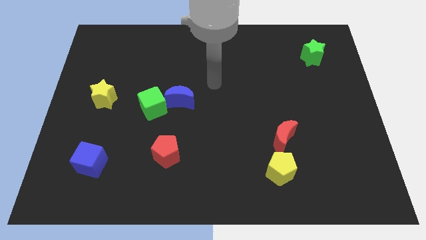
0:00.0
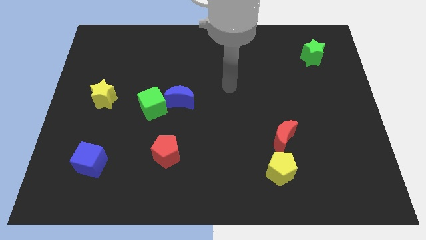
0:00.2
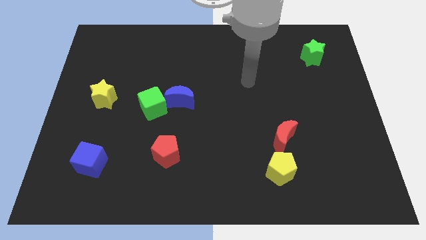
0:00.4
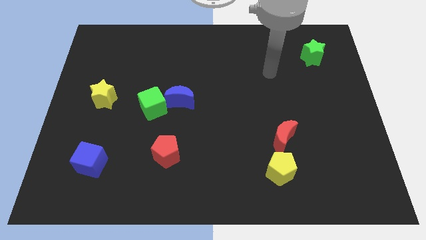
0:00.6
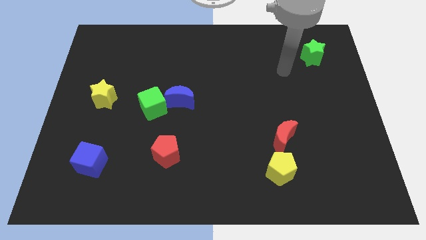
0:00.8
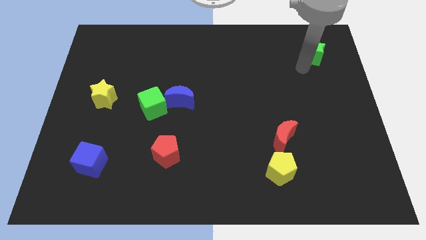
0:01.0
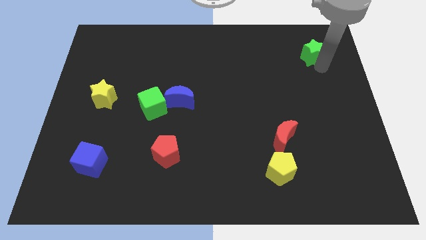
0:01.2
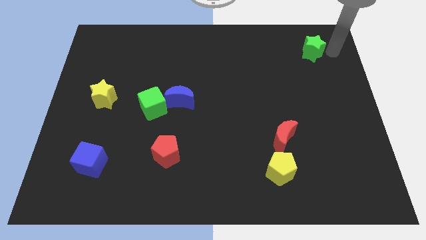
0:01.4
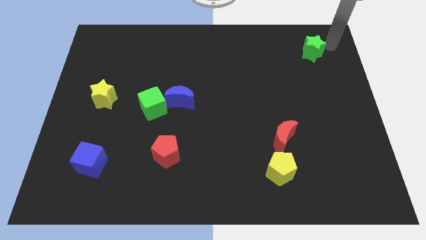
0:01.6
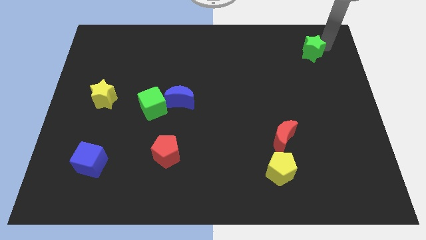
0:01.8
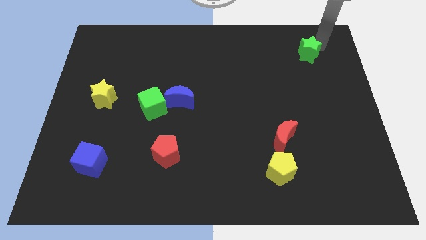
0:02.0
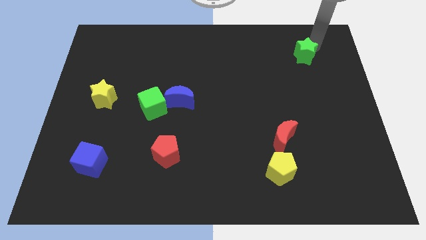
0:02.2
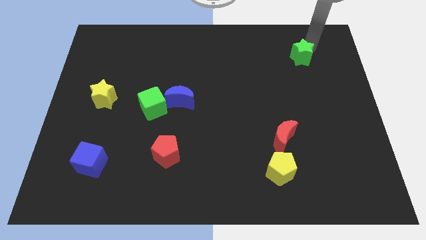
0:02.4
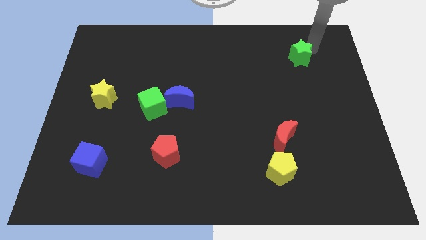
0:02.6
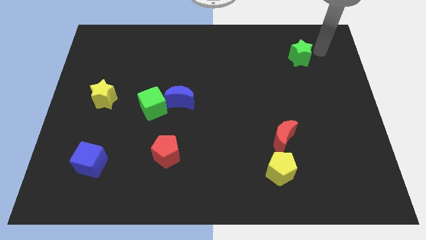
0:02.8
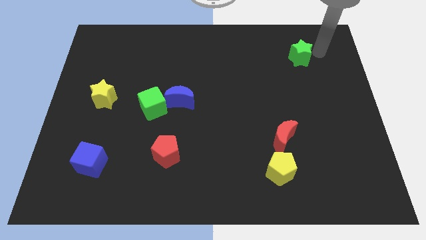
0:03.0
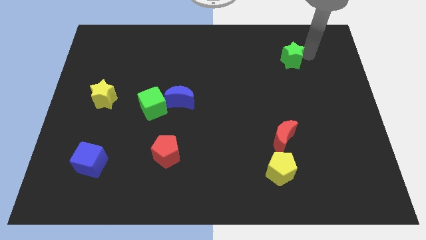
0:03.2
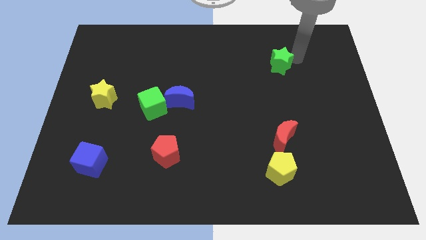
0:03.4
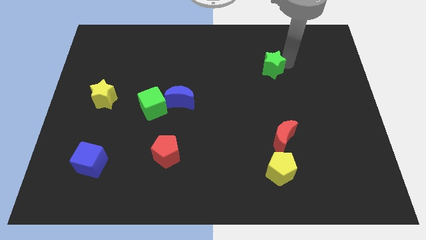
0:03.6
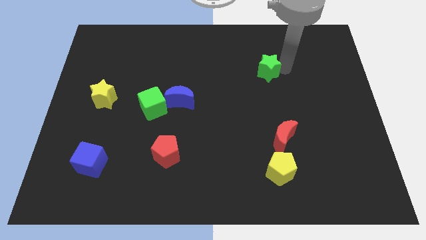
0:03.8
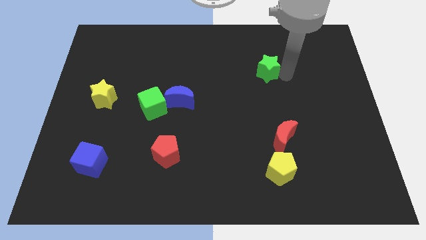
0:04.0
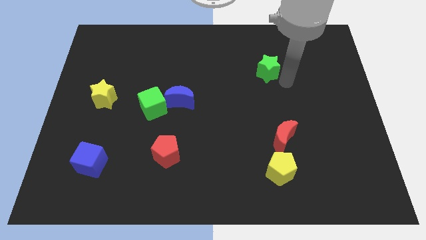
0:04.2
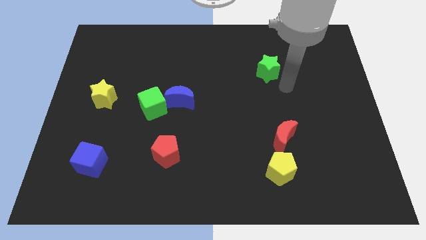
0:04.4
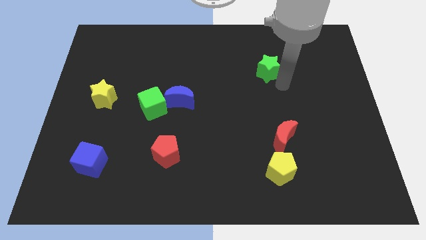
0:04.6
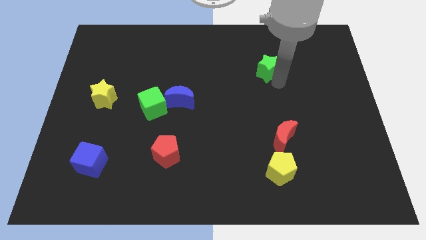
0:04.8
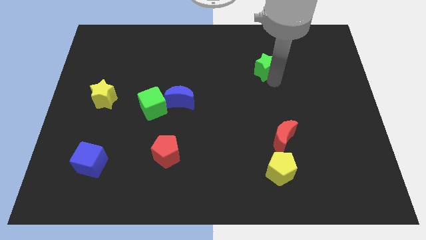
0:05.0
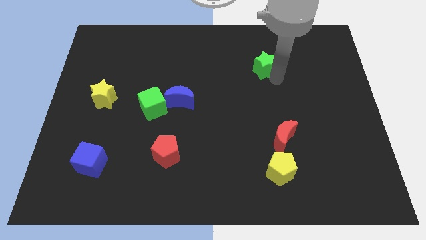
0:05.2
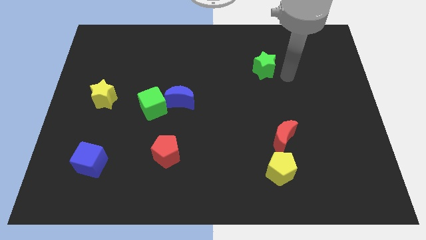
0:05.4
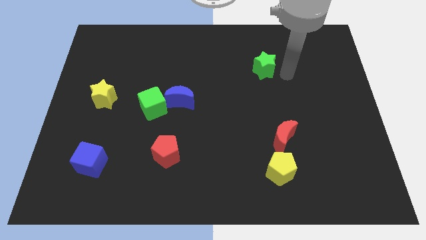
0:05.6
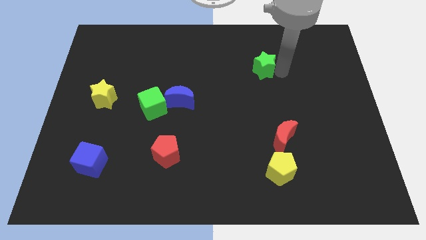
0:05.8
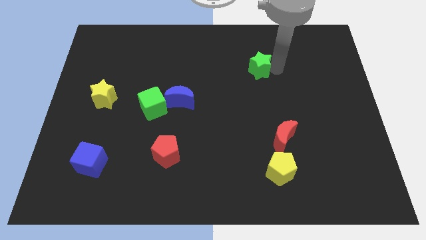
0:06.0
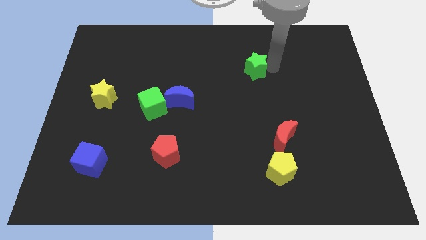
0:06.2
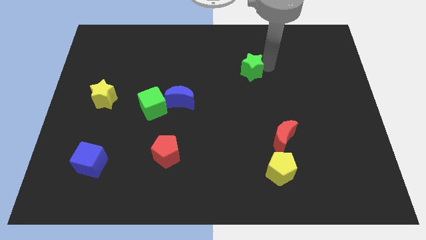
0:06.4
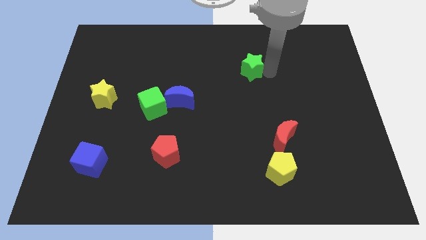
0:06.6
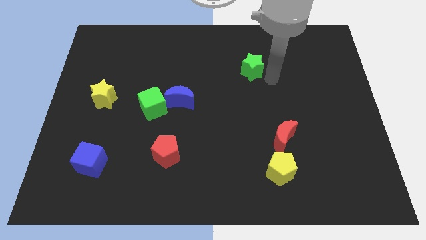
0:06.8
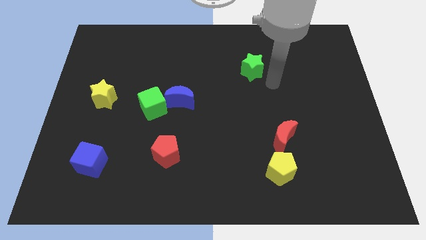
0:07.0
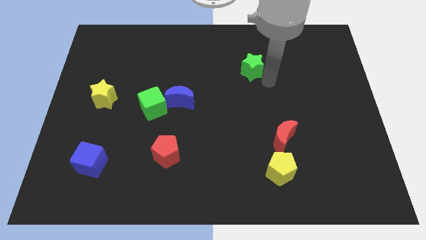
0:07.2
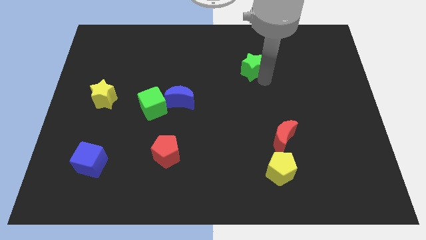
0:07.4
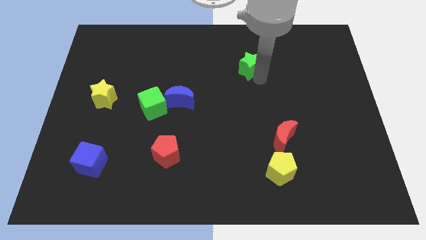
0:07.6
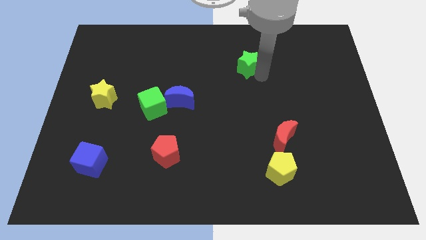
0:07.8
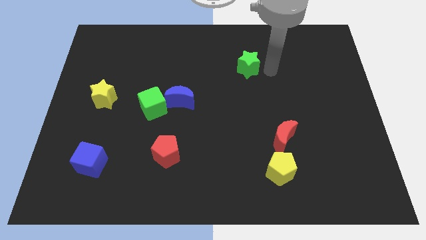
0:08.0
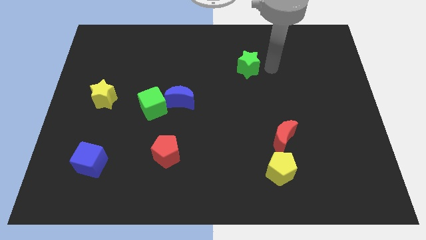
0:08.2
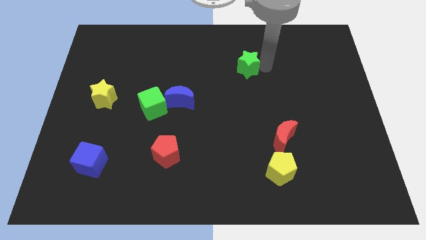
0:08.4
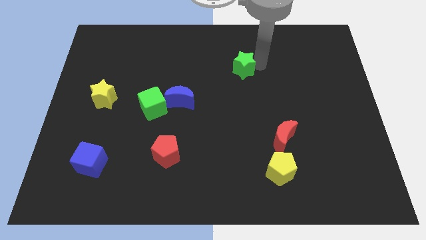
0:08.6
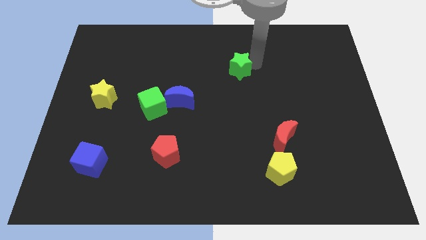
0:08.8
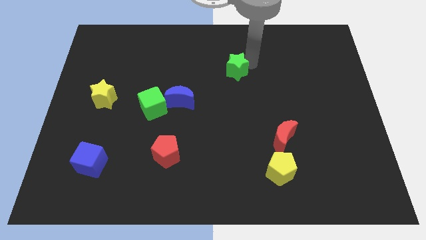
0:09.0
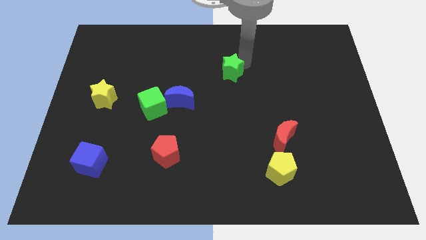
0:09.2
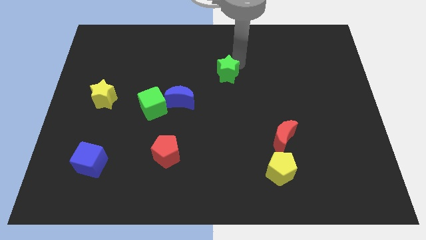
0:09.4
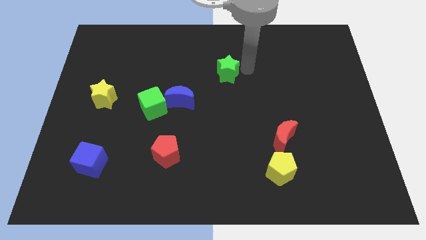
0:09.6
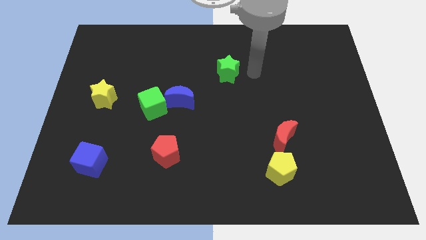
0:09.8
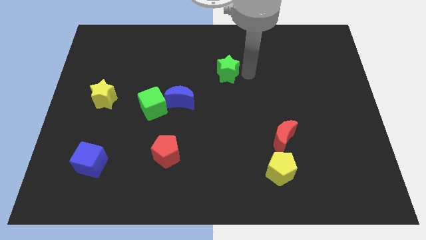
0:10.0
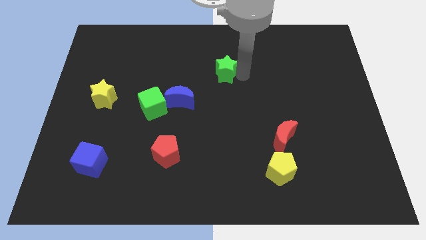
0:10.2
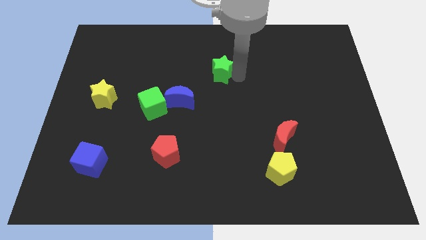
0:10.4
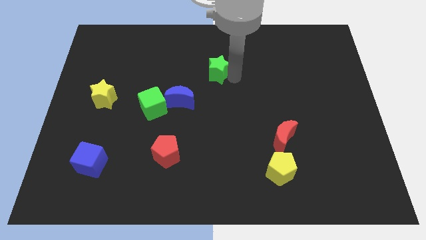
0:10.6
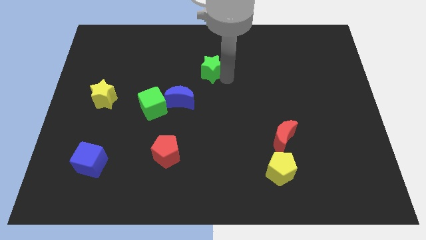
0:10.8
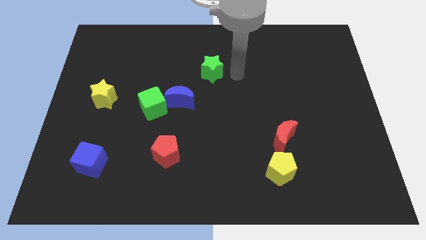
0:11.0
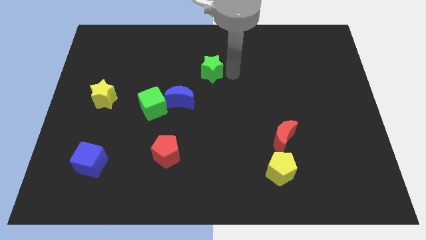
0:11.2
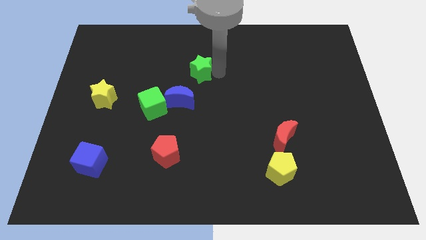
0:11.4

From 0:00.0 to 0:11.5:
slide the green star to the top of the blue moon

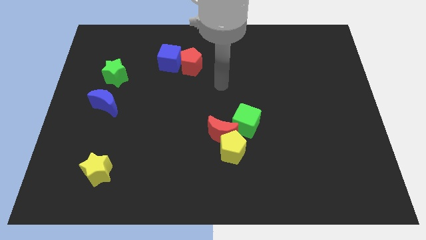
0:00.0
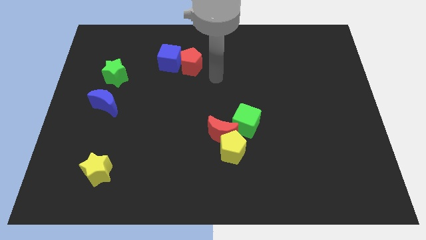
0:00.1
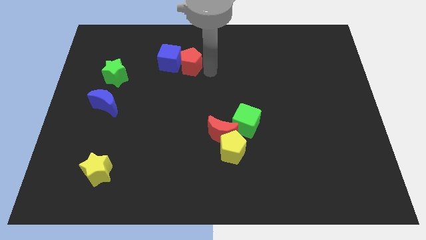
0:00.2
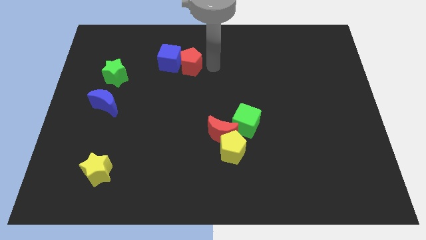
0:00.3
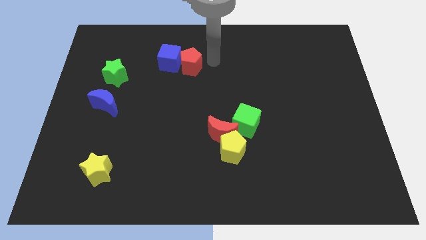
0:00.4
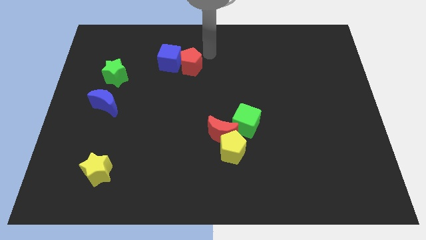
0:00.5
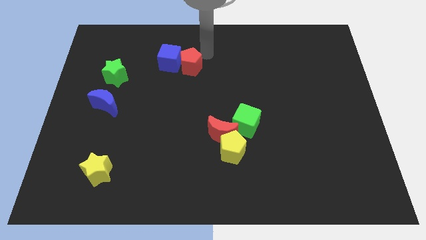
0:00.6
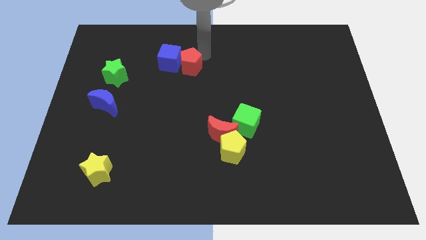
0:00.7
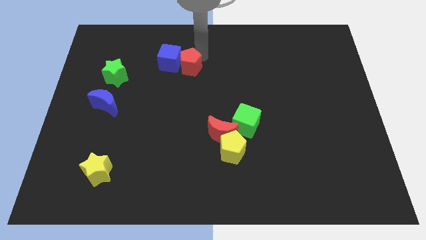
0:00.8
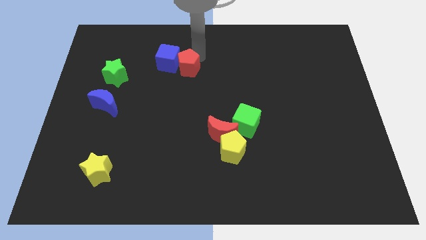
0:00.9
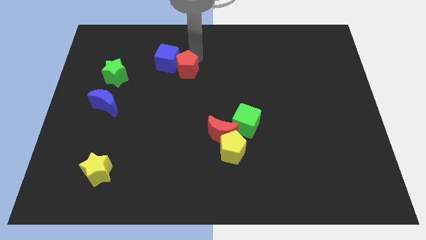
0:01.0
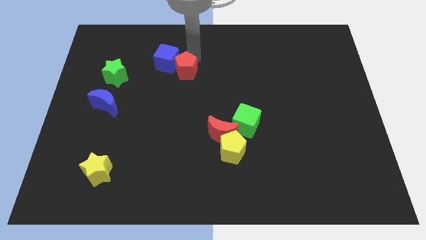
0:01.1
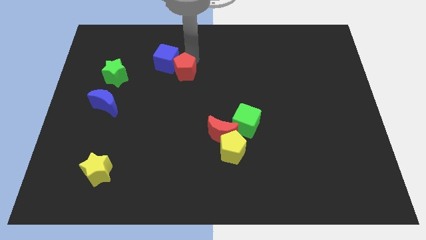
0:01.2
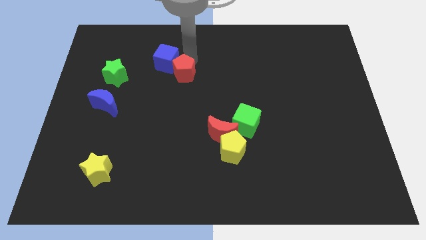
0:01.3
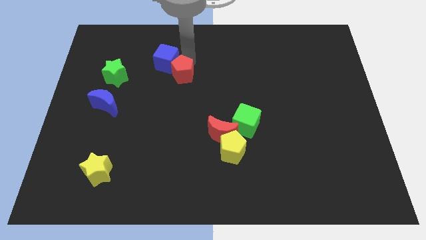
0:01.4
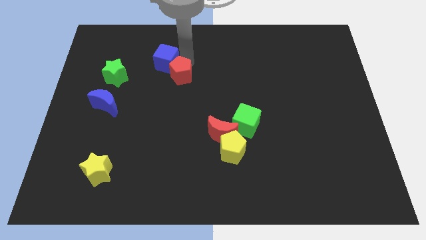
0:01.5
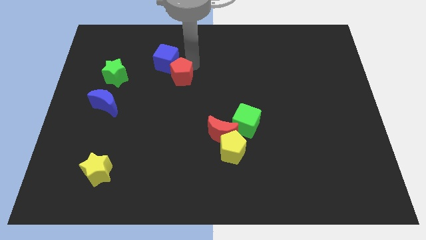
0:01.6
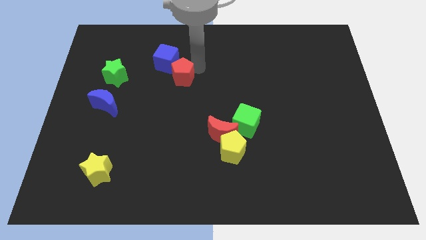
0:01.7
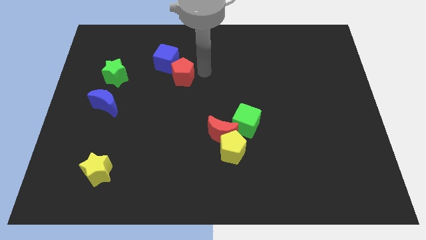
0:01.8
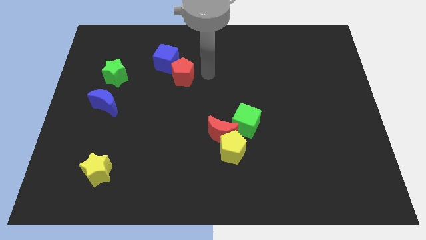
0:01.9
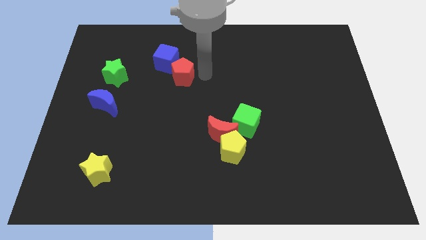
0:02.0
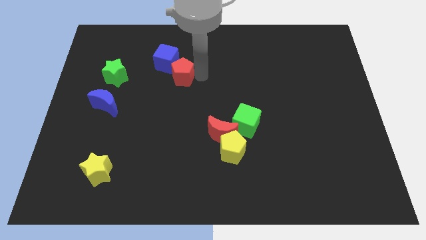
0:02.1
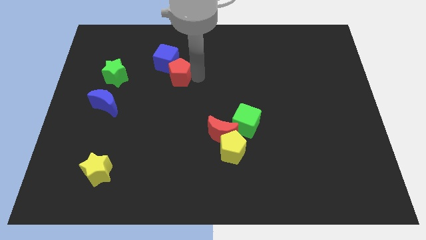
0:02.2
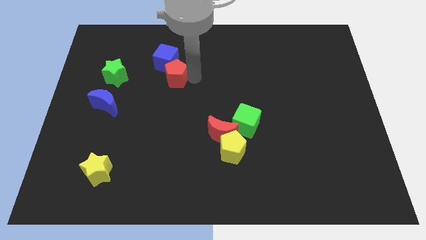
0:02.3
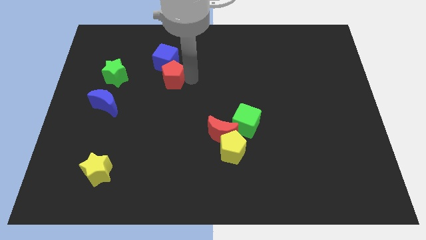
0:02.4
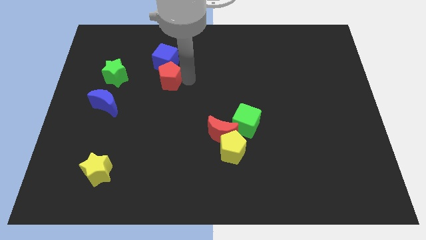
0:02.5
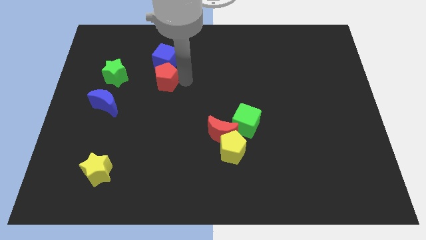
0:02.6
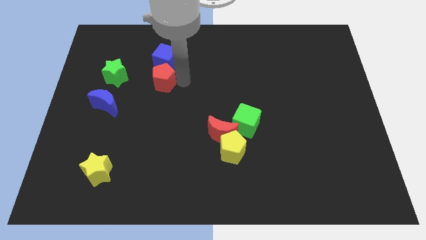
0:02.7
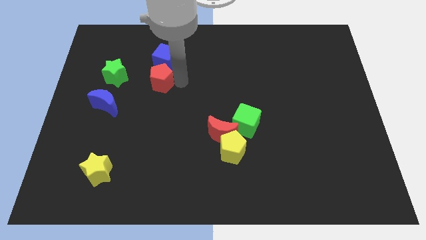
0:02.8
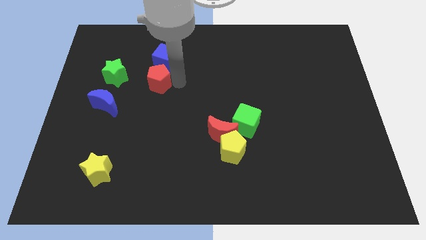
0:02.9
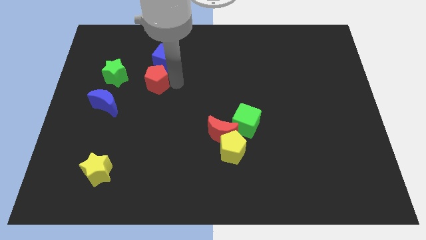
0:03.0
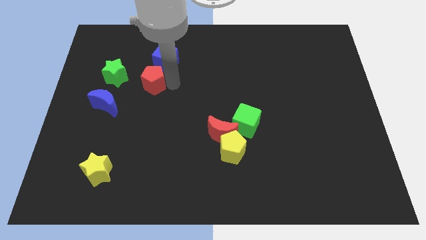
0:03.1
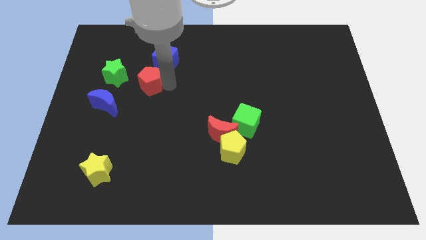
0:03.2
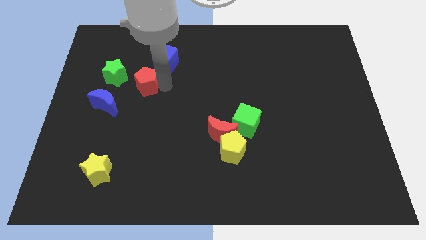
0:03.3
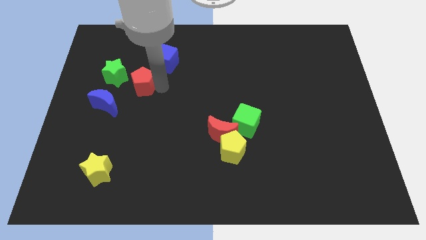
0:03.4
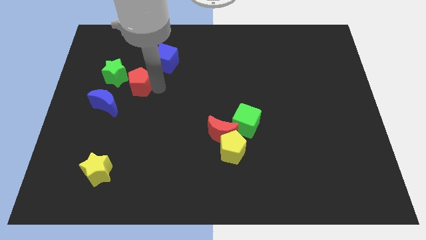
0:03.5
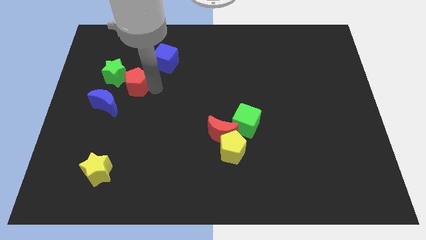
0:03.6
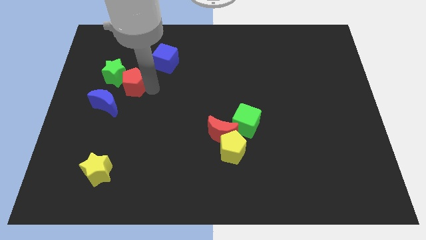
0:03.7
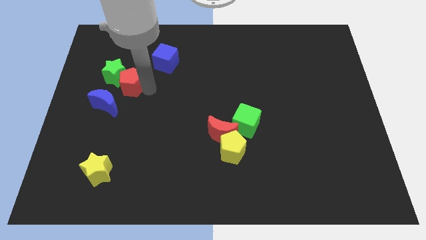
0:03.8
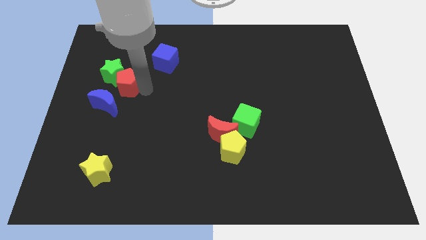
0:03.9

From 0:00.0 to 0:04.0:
put the red pentagon above the blue moon
